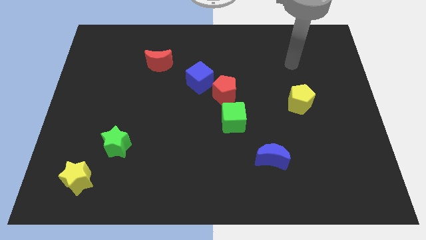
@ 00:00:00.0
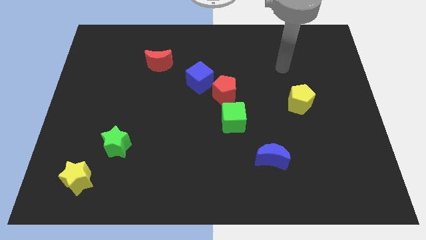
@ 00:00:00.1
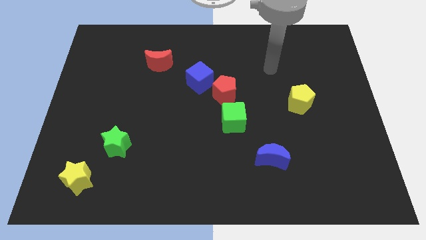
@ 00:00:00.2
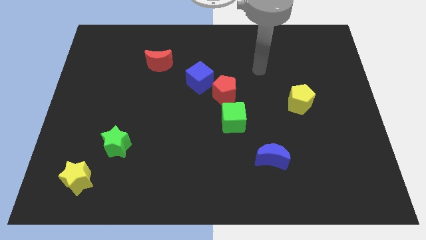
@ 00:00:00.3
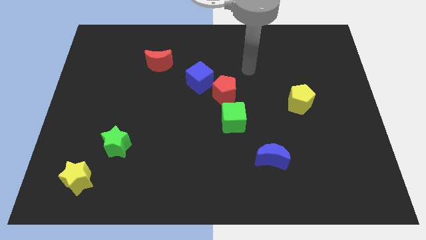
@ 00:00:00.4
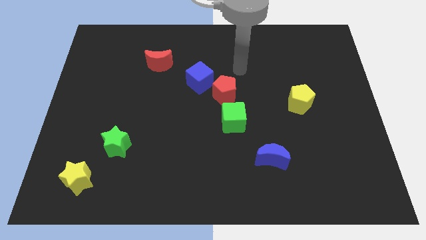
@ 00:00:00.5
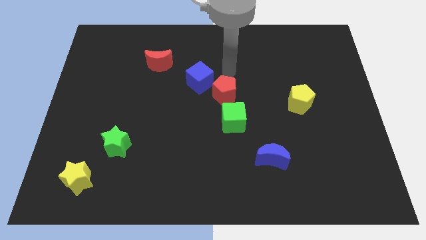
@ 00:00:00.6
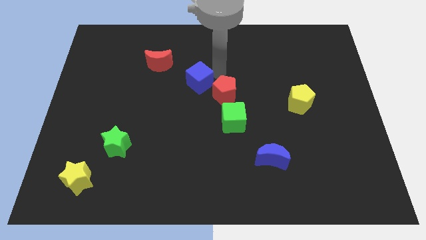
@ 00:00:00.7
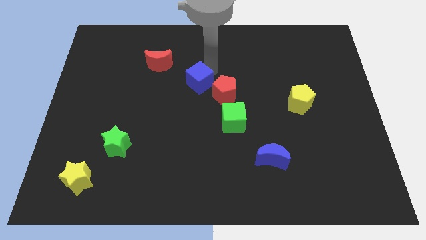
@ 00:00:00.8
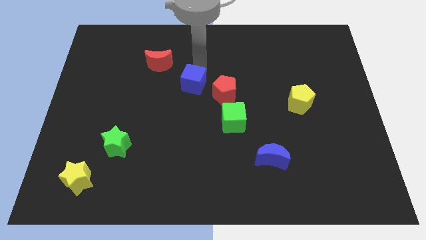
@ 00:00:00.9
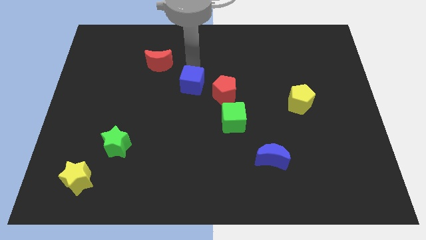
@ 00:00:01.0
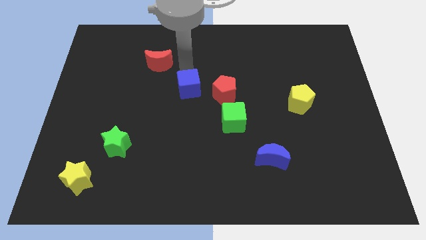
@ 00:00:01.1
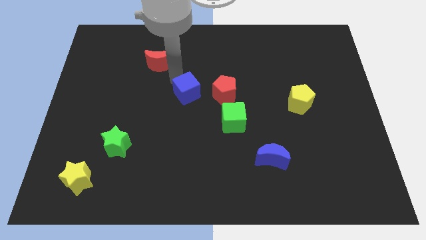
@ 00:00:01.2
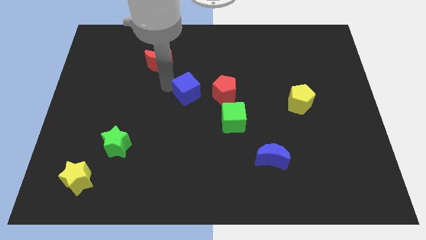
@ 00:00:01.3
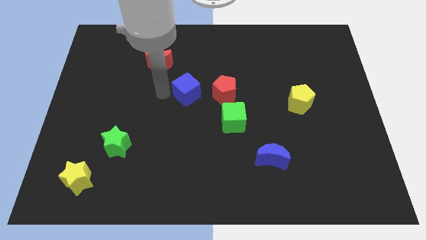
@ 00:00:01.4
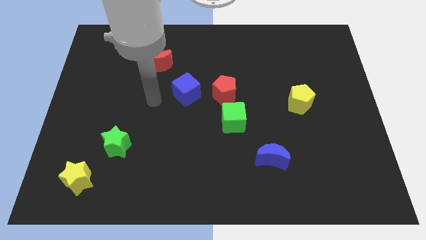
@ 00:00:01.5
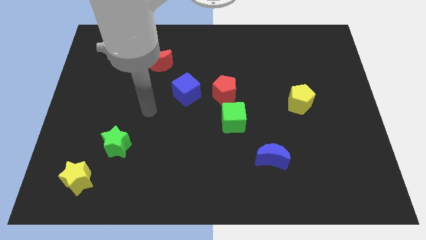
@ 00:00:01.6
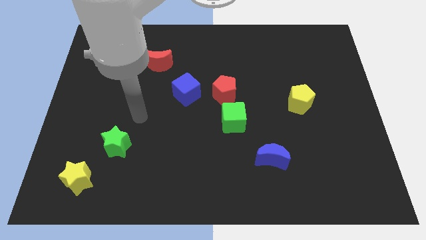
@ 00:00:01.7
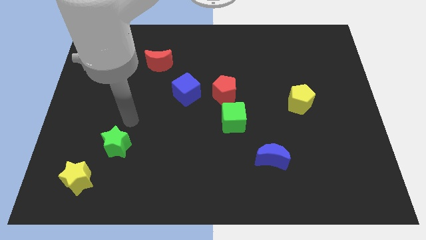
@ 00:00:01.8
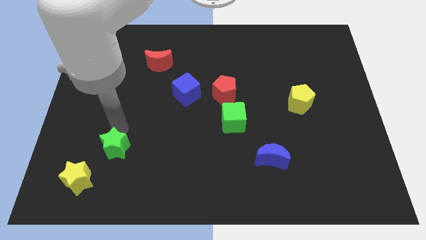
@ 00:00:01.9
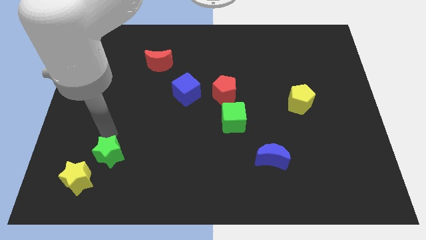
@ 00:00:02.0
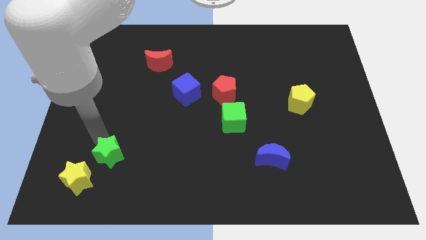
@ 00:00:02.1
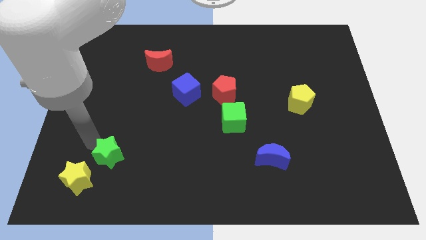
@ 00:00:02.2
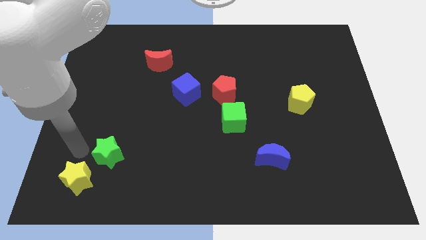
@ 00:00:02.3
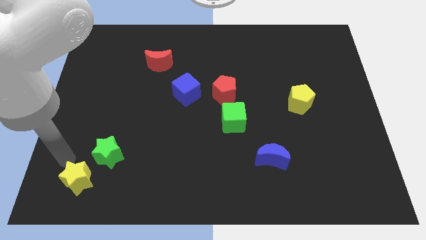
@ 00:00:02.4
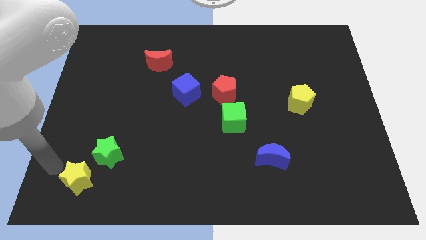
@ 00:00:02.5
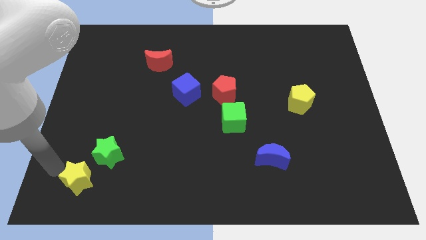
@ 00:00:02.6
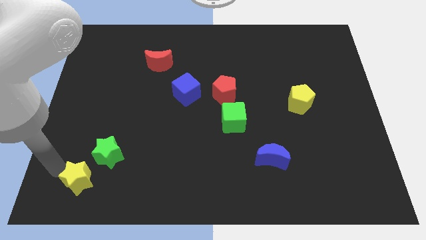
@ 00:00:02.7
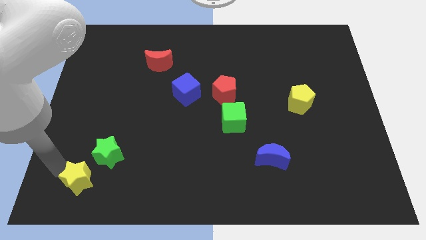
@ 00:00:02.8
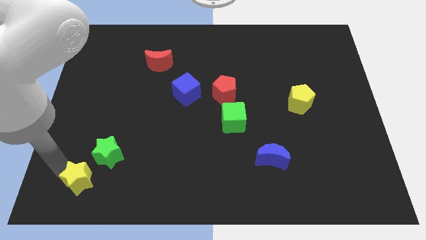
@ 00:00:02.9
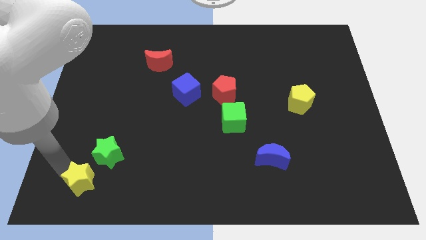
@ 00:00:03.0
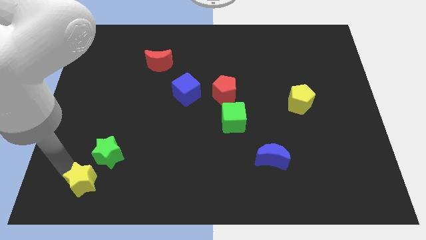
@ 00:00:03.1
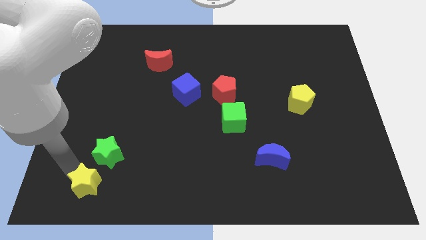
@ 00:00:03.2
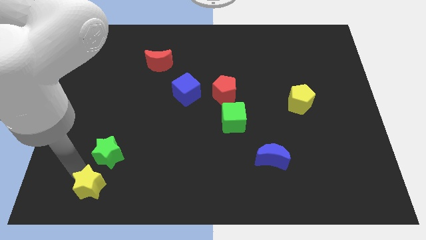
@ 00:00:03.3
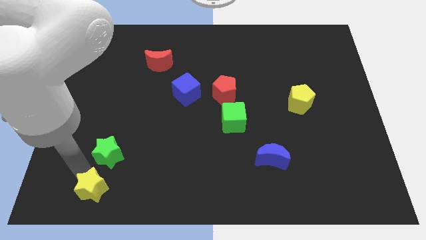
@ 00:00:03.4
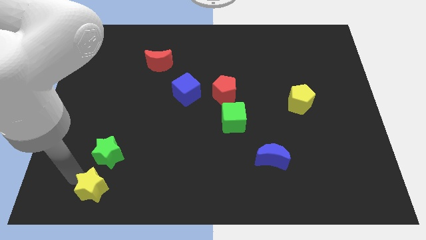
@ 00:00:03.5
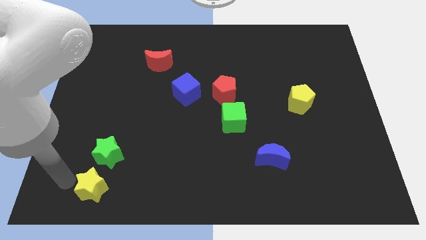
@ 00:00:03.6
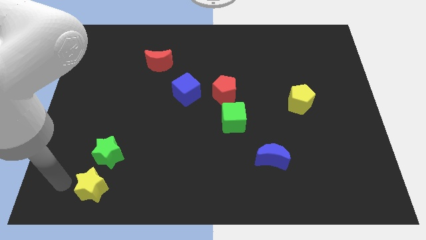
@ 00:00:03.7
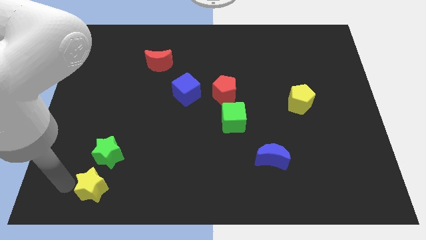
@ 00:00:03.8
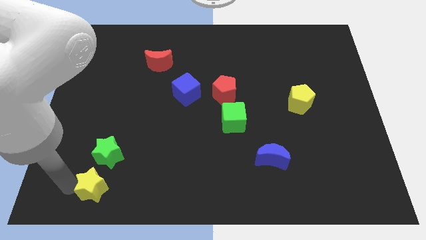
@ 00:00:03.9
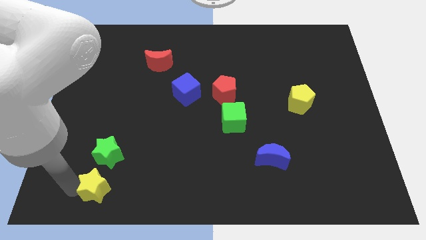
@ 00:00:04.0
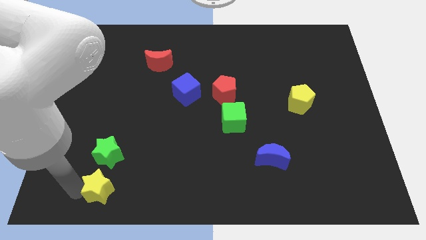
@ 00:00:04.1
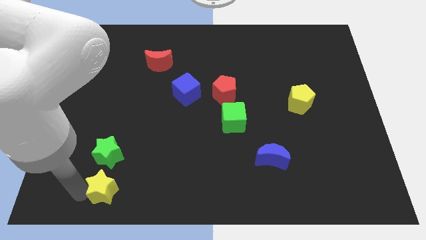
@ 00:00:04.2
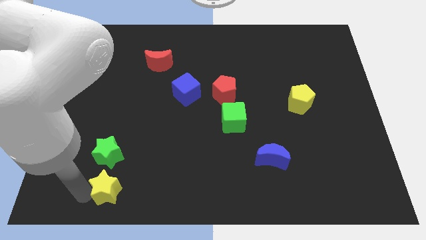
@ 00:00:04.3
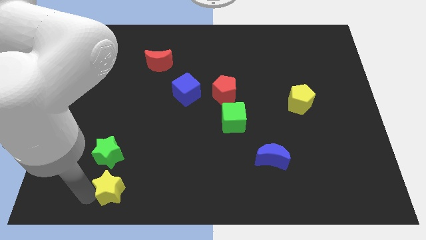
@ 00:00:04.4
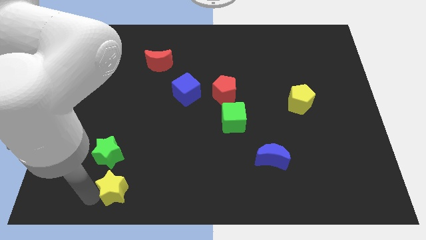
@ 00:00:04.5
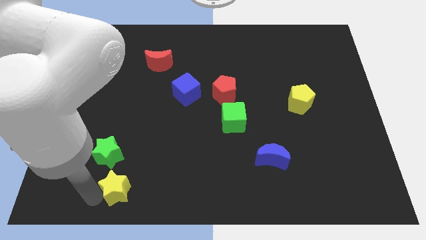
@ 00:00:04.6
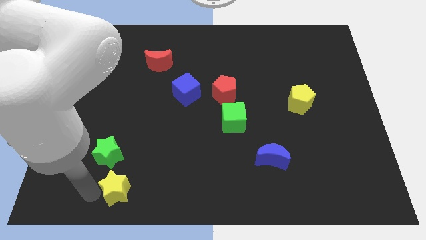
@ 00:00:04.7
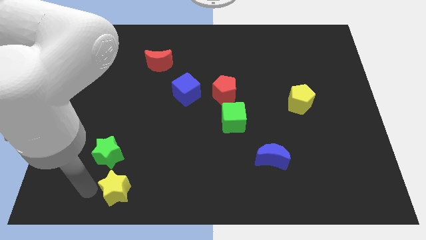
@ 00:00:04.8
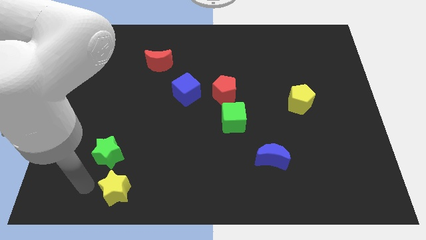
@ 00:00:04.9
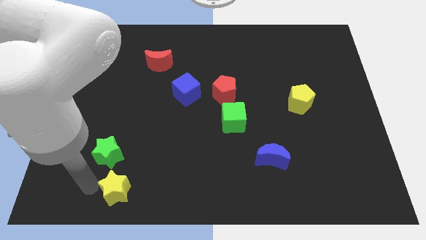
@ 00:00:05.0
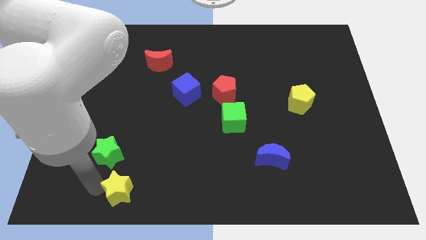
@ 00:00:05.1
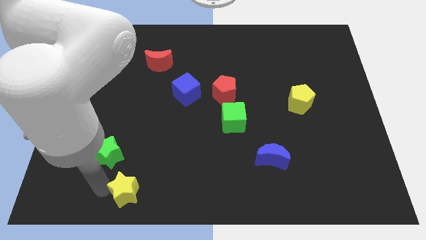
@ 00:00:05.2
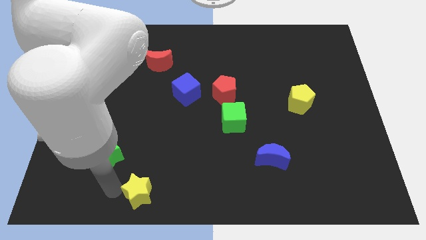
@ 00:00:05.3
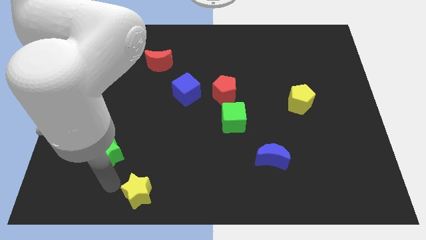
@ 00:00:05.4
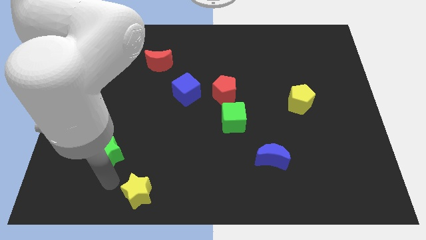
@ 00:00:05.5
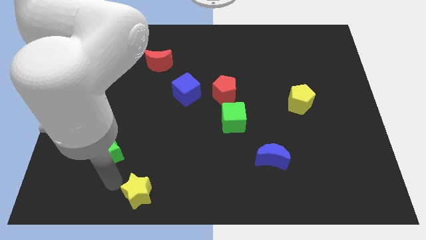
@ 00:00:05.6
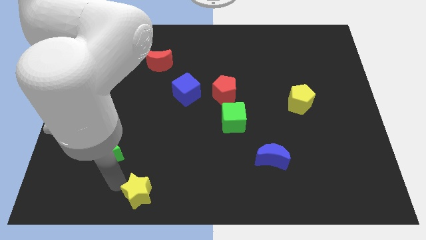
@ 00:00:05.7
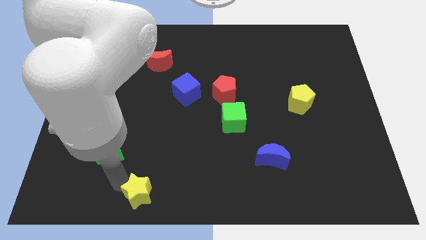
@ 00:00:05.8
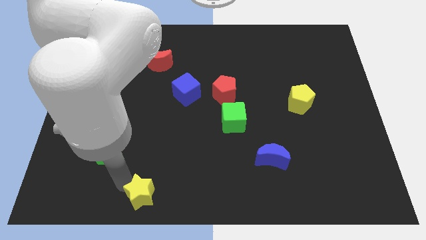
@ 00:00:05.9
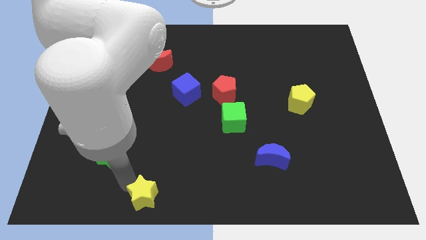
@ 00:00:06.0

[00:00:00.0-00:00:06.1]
move the yellow star to the bottom side
